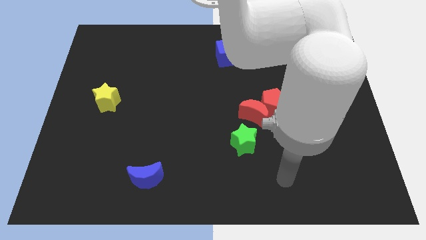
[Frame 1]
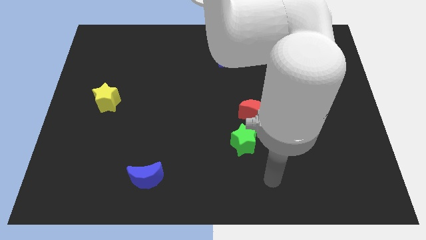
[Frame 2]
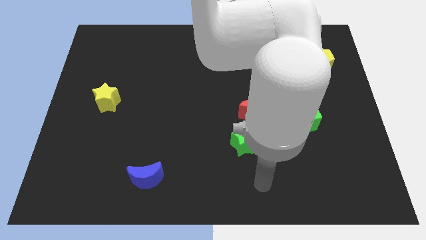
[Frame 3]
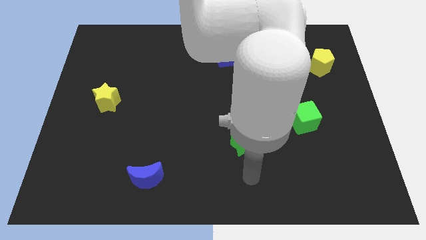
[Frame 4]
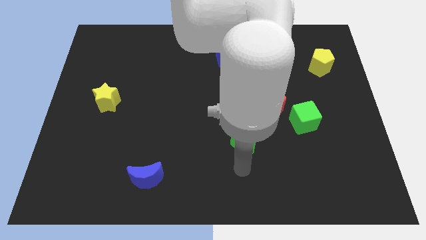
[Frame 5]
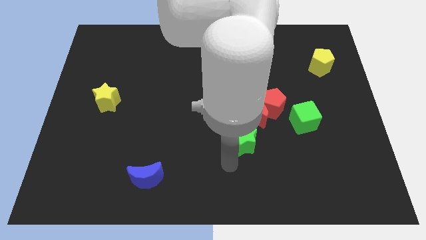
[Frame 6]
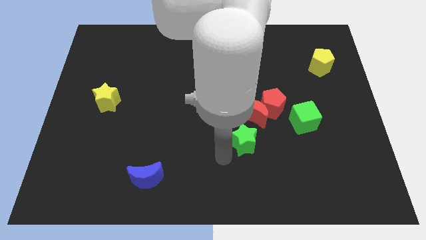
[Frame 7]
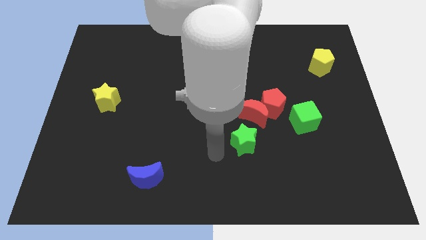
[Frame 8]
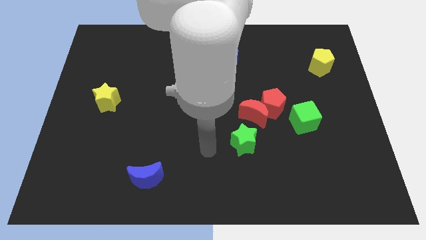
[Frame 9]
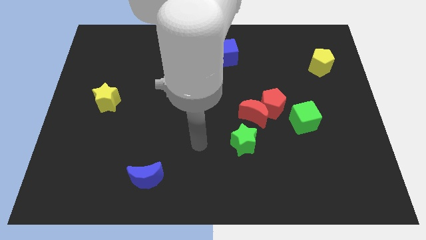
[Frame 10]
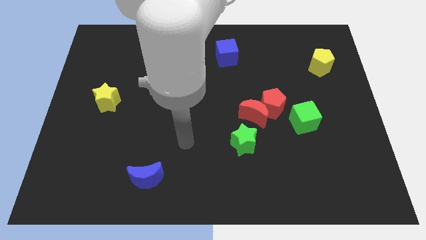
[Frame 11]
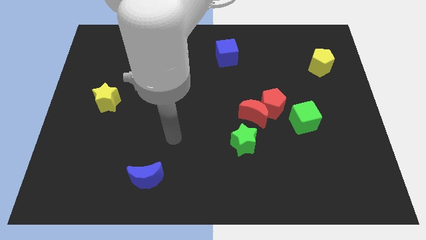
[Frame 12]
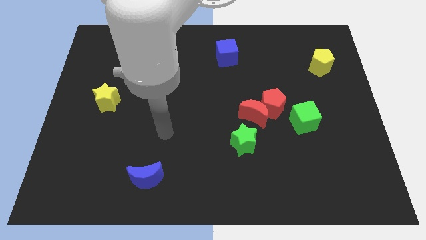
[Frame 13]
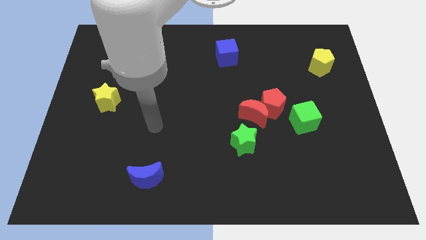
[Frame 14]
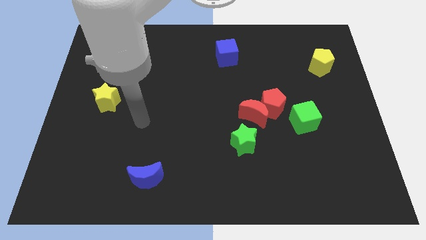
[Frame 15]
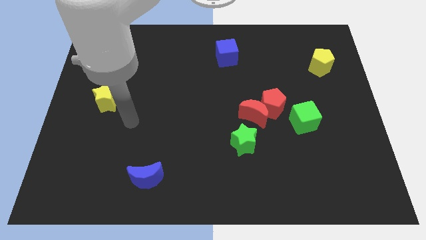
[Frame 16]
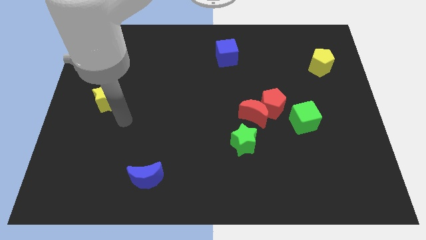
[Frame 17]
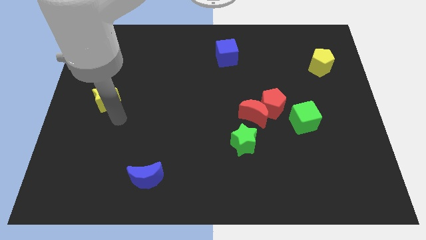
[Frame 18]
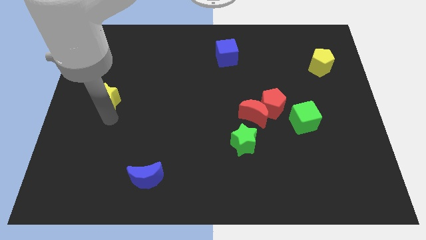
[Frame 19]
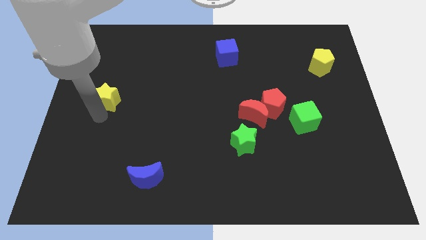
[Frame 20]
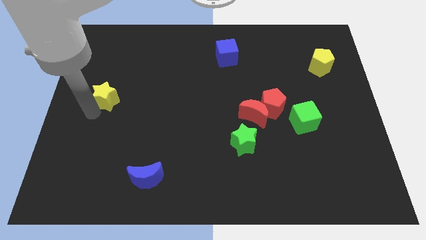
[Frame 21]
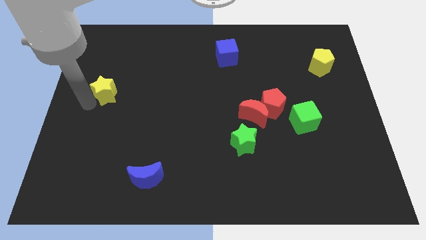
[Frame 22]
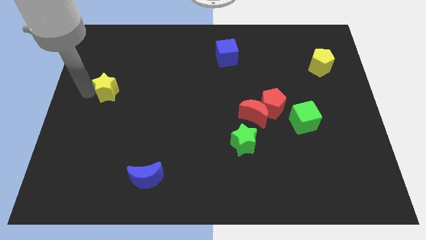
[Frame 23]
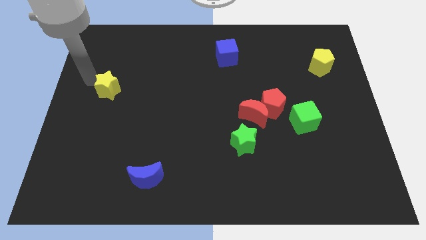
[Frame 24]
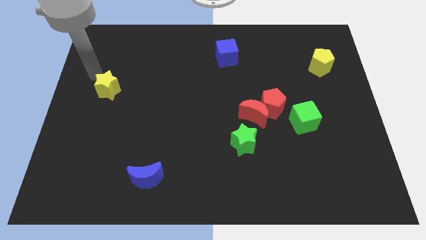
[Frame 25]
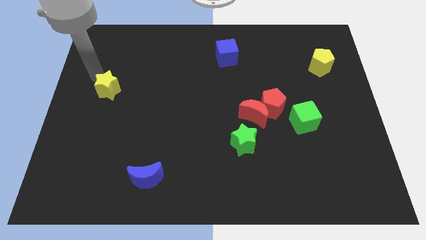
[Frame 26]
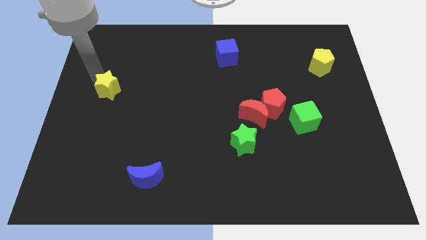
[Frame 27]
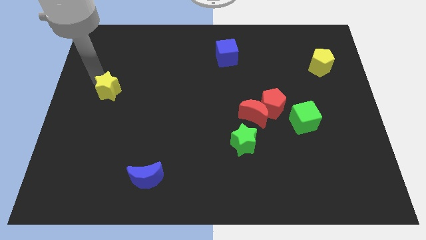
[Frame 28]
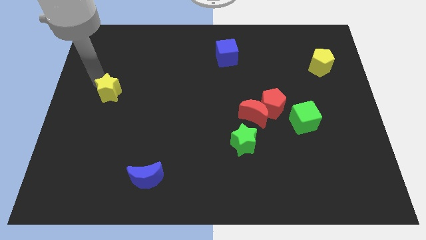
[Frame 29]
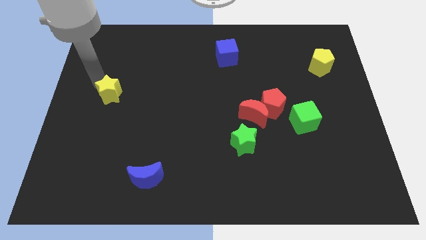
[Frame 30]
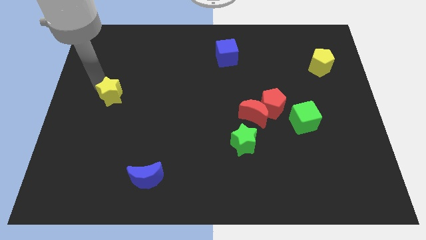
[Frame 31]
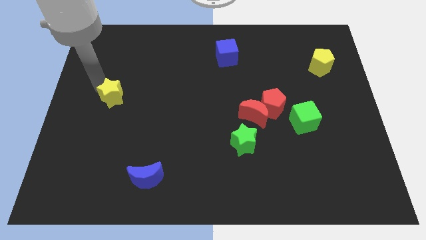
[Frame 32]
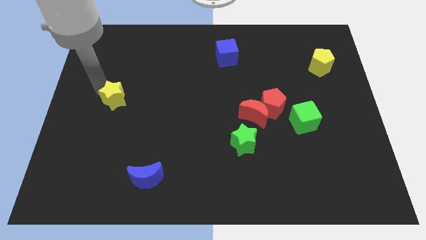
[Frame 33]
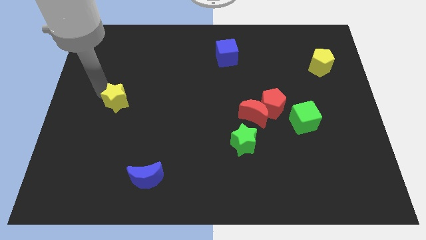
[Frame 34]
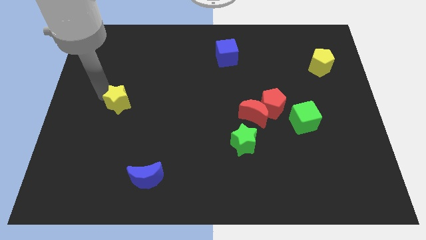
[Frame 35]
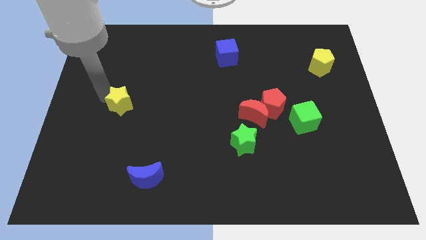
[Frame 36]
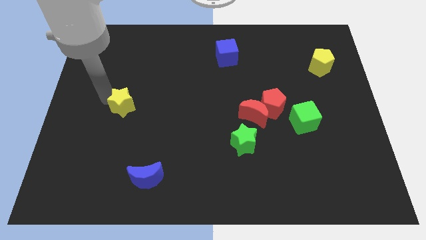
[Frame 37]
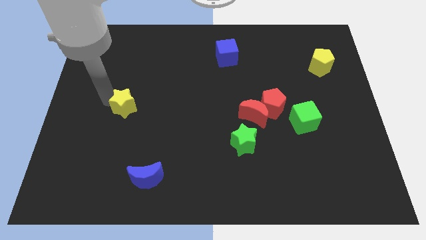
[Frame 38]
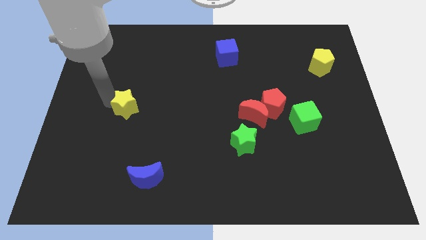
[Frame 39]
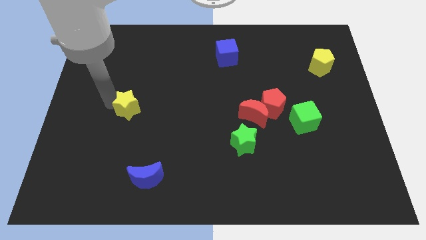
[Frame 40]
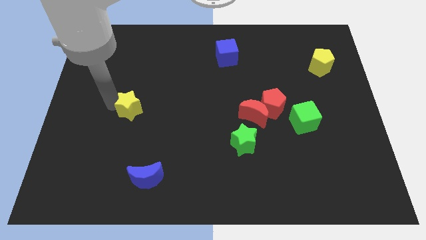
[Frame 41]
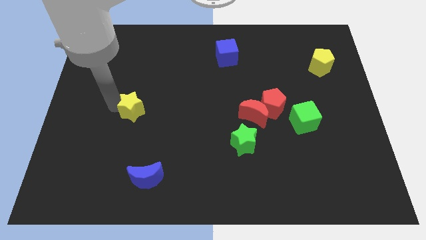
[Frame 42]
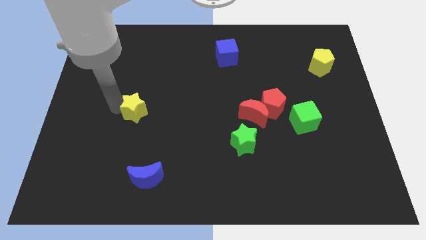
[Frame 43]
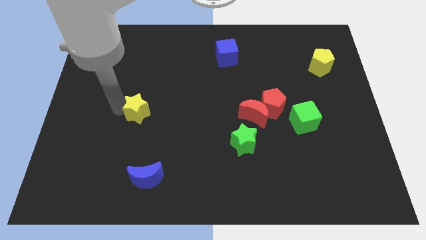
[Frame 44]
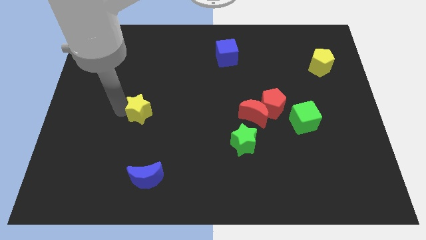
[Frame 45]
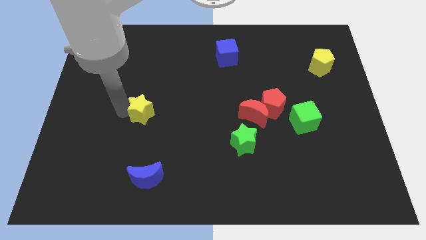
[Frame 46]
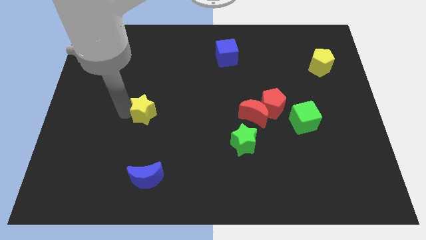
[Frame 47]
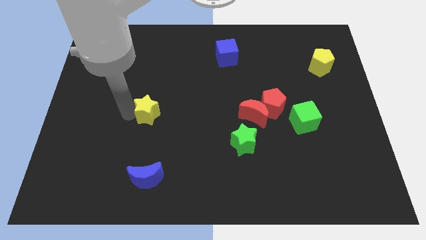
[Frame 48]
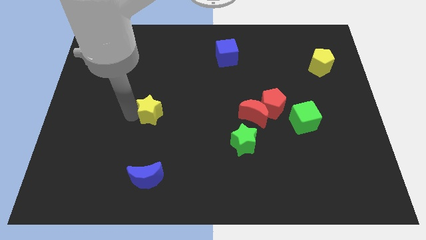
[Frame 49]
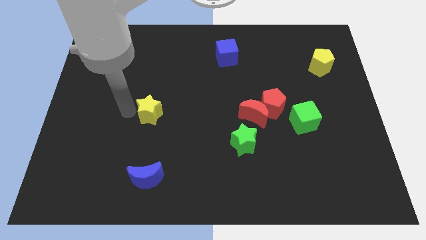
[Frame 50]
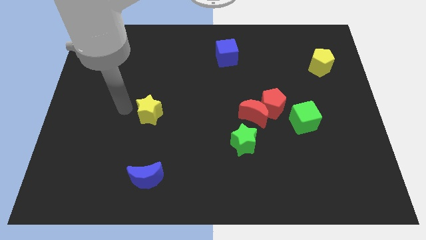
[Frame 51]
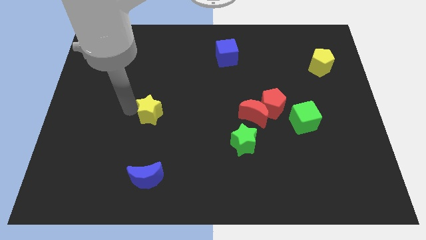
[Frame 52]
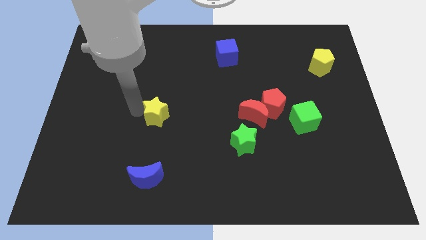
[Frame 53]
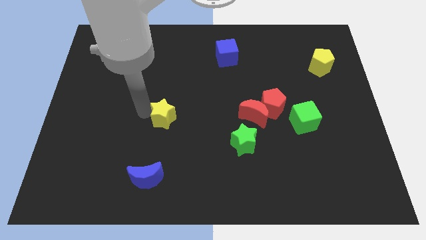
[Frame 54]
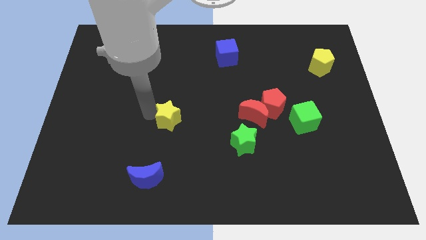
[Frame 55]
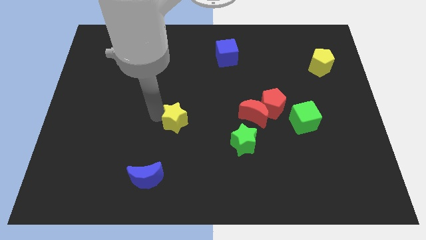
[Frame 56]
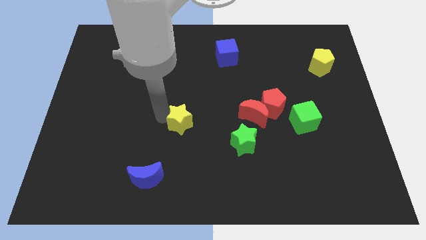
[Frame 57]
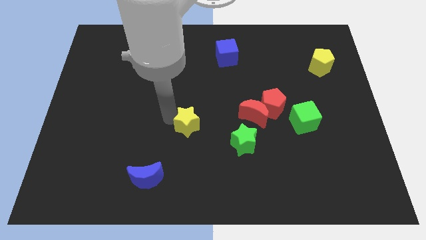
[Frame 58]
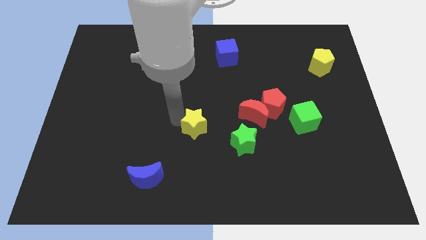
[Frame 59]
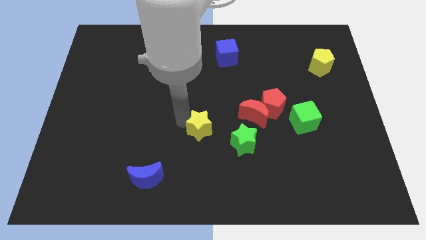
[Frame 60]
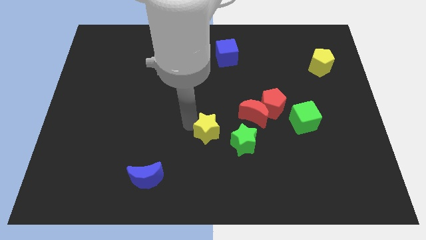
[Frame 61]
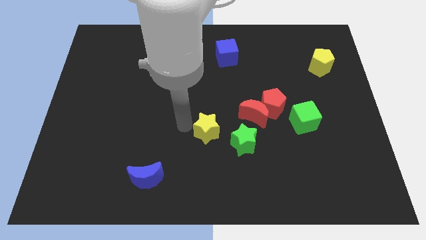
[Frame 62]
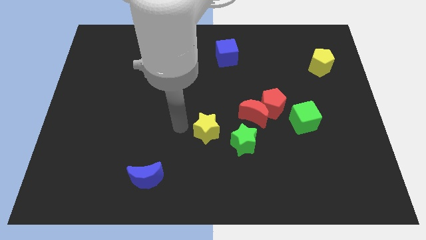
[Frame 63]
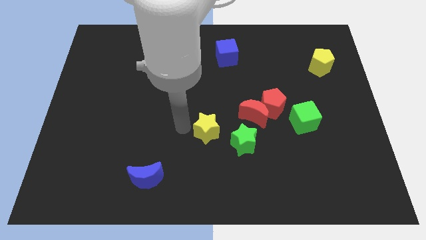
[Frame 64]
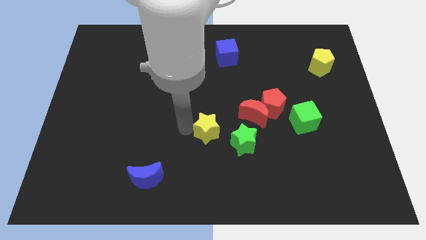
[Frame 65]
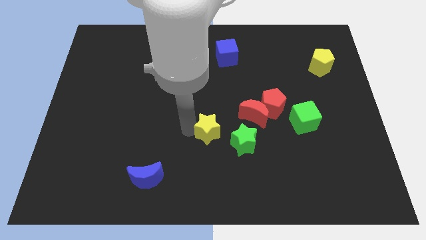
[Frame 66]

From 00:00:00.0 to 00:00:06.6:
put the yellow star to the bottom left side of the red moon

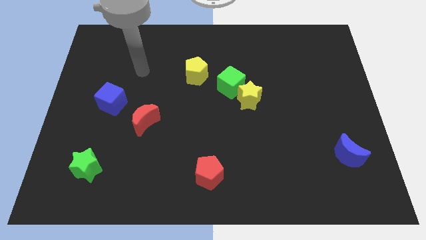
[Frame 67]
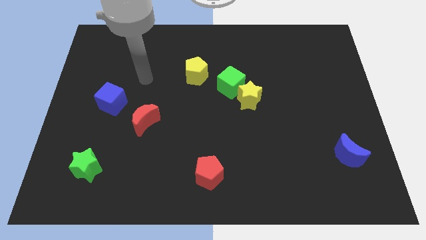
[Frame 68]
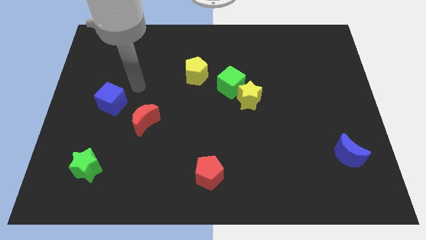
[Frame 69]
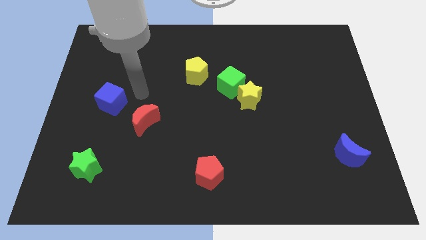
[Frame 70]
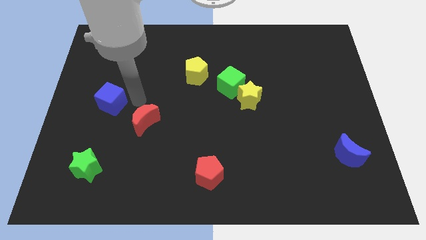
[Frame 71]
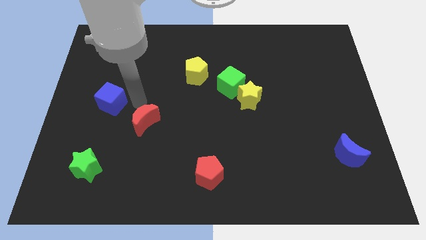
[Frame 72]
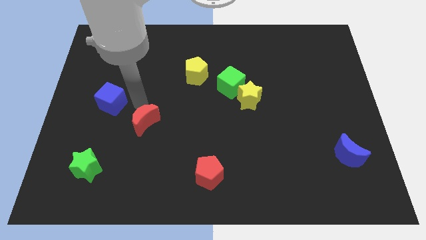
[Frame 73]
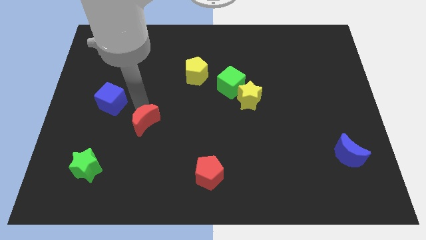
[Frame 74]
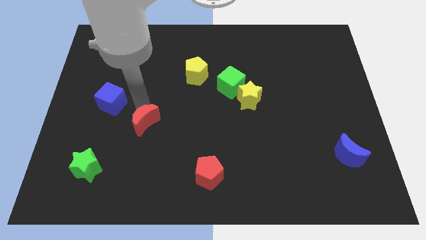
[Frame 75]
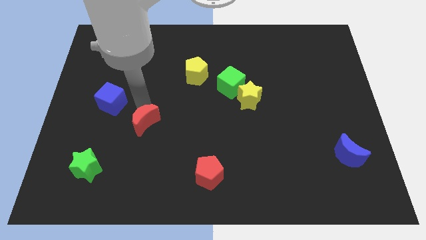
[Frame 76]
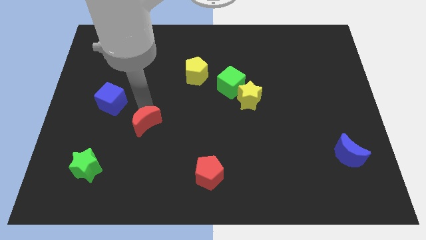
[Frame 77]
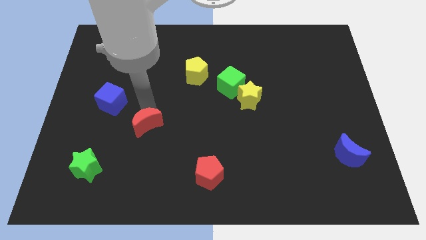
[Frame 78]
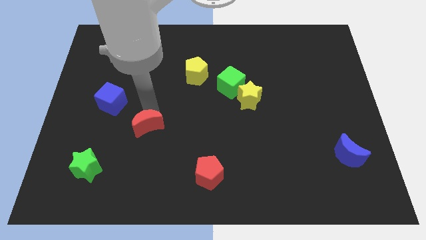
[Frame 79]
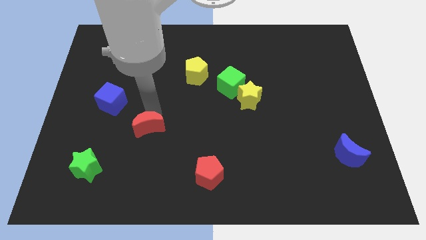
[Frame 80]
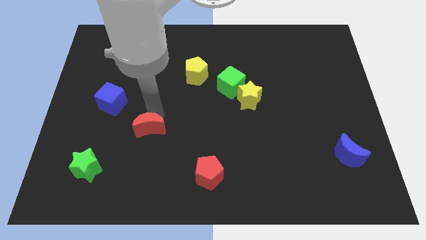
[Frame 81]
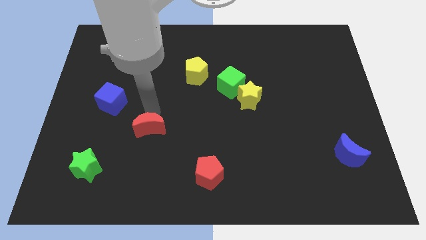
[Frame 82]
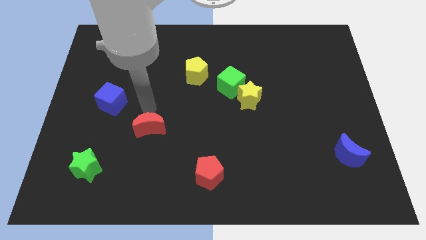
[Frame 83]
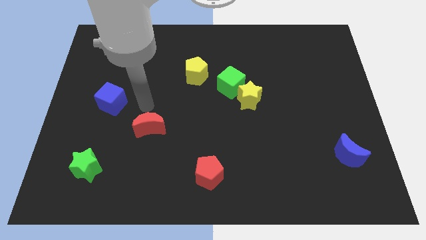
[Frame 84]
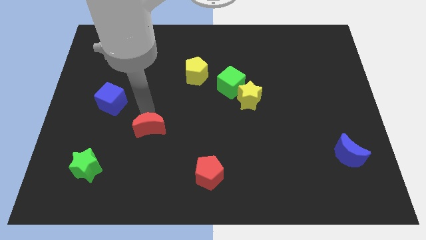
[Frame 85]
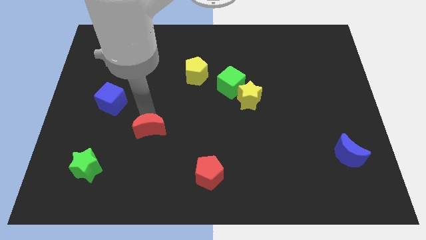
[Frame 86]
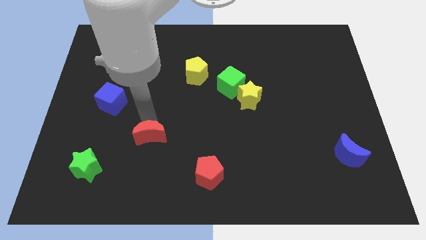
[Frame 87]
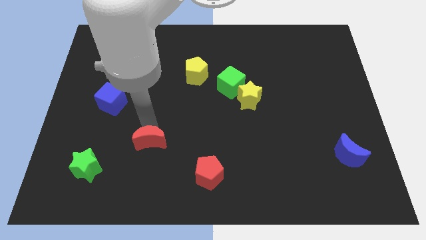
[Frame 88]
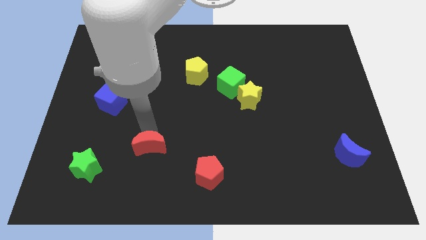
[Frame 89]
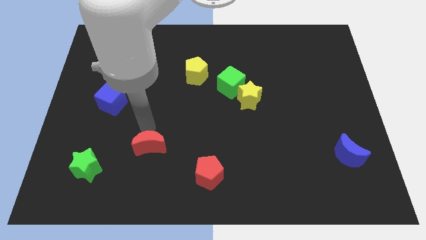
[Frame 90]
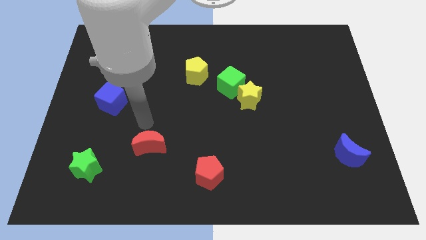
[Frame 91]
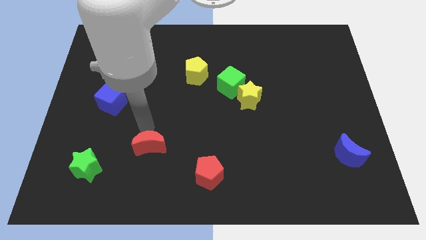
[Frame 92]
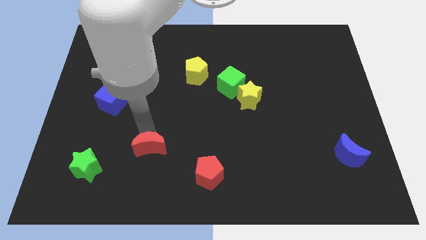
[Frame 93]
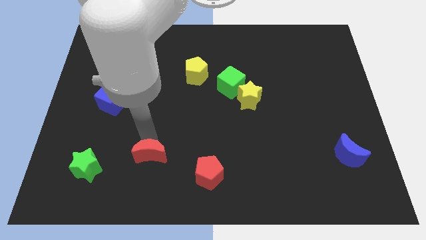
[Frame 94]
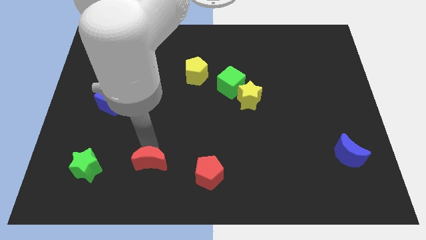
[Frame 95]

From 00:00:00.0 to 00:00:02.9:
put the red moon to the left of the red pentagon
